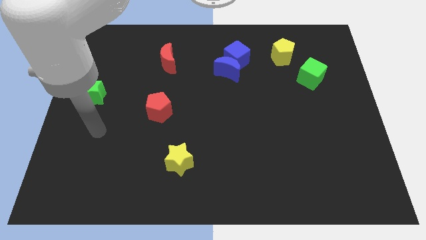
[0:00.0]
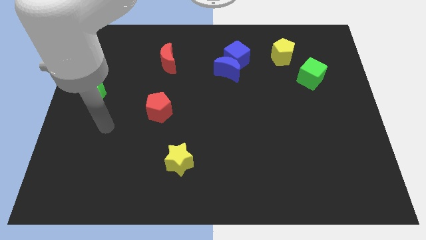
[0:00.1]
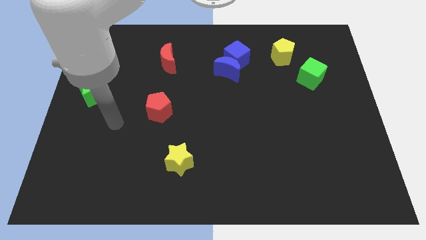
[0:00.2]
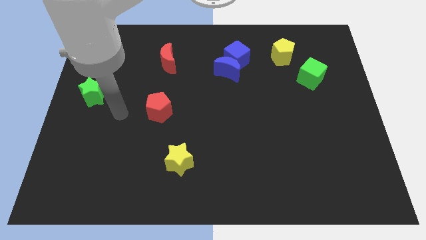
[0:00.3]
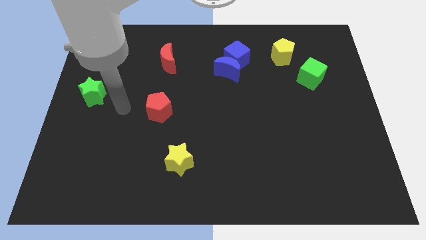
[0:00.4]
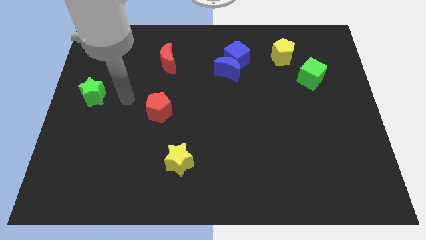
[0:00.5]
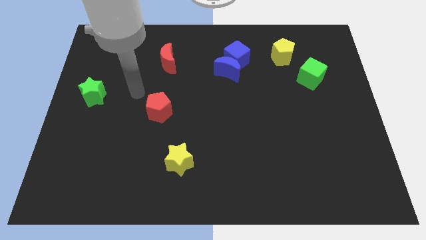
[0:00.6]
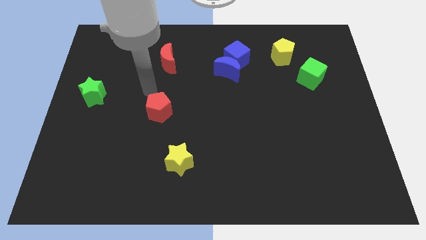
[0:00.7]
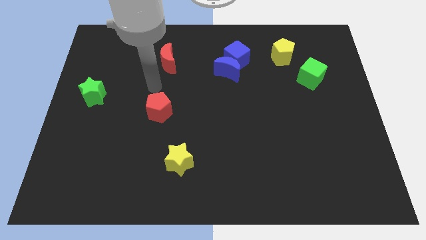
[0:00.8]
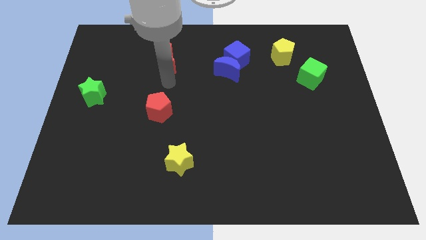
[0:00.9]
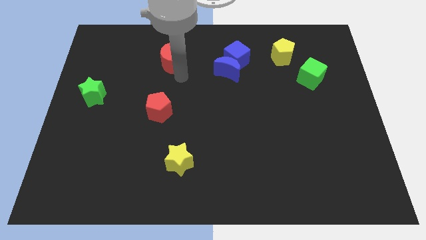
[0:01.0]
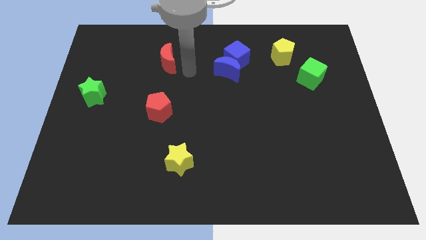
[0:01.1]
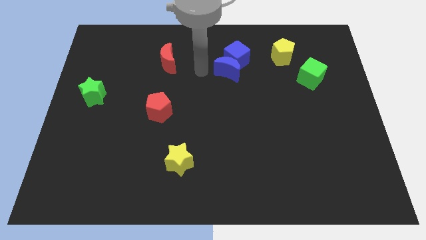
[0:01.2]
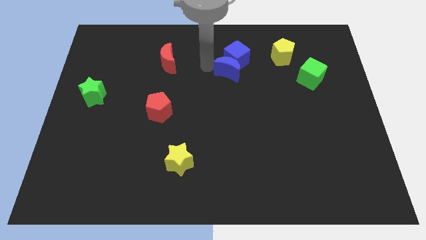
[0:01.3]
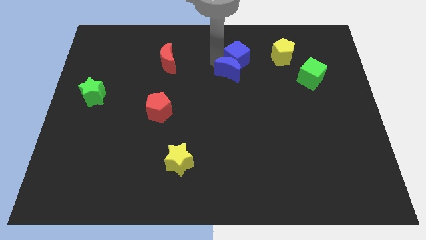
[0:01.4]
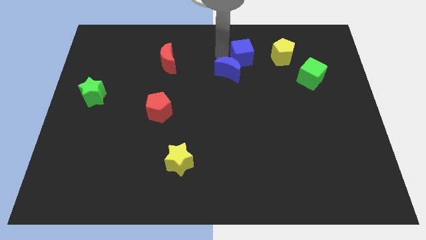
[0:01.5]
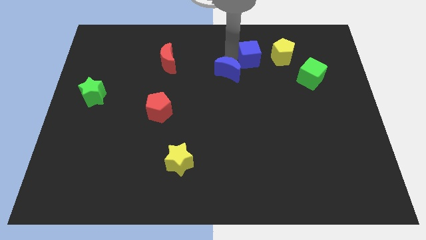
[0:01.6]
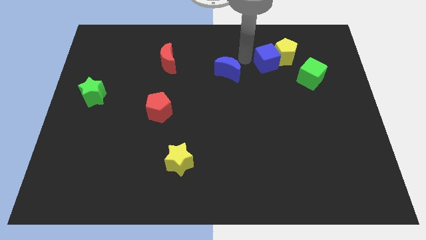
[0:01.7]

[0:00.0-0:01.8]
move the blue moon away from the blue cube

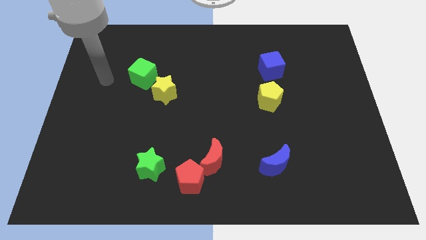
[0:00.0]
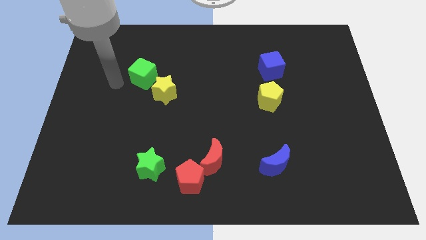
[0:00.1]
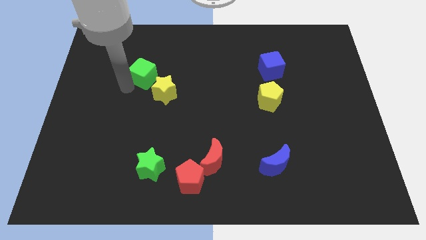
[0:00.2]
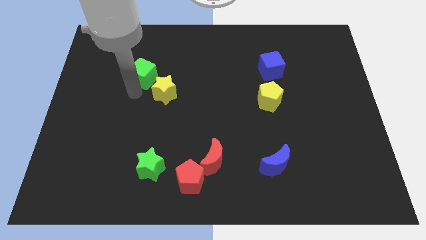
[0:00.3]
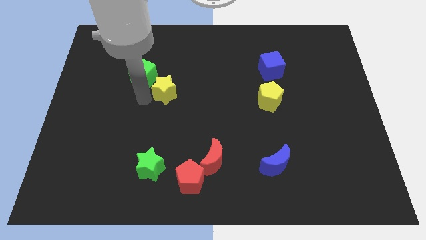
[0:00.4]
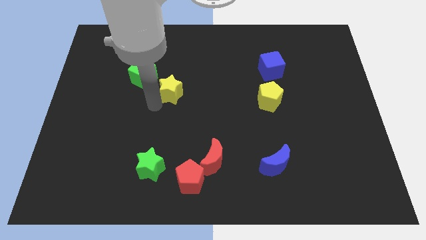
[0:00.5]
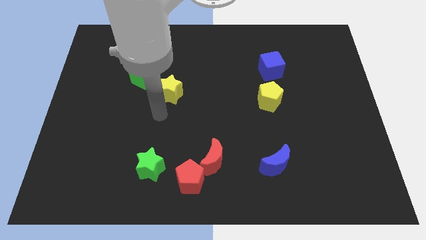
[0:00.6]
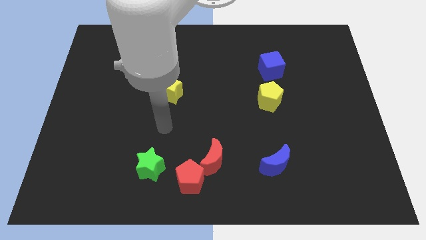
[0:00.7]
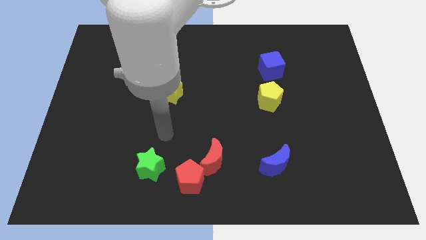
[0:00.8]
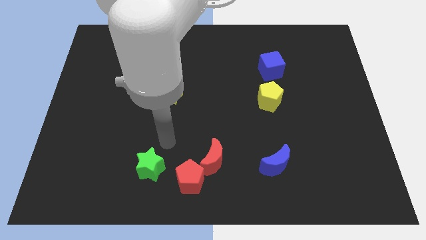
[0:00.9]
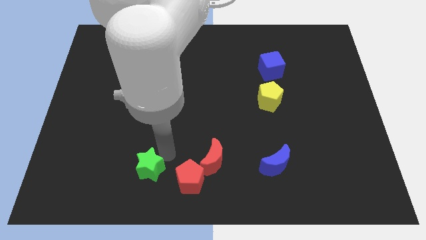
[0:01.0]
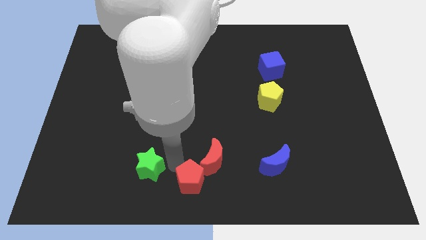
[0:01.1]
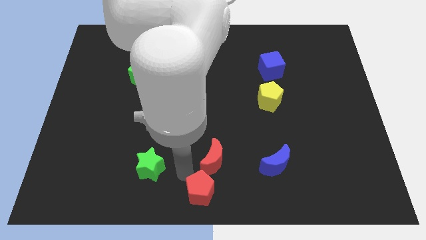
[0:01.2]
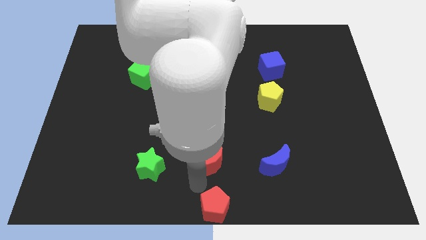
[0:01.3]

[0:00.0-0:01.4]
move the red moon away from the red pentagon

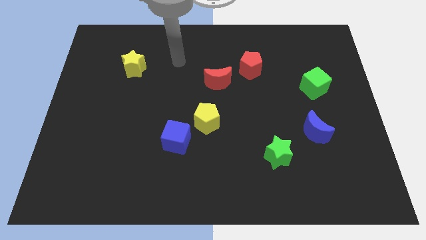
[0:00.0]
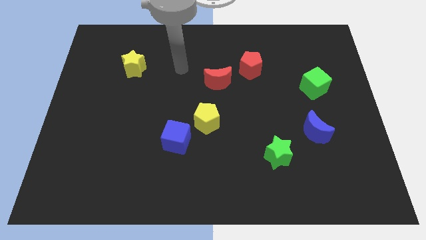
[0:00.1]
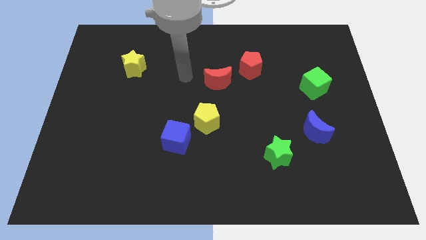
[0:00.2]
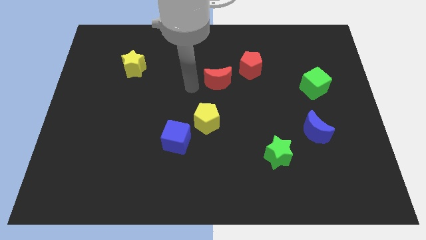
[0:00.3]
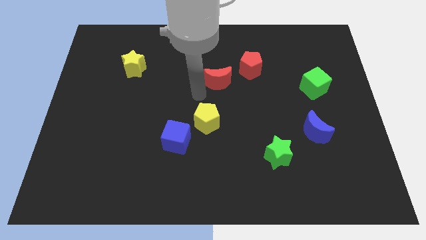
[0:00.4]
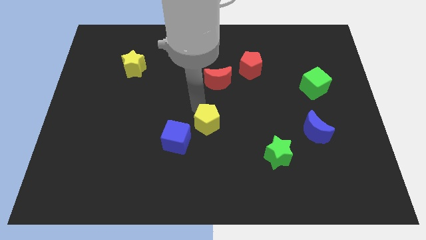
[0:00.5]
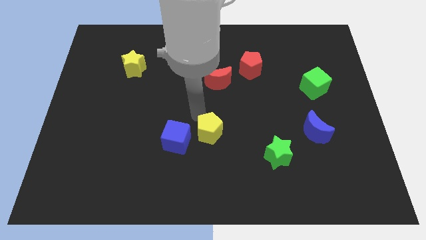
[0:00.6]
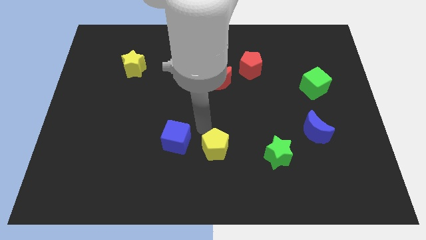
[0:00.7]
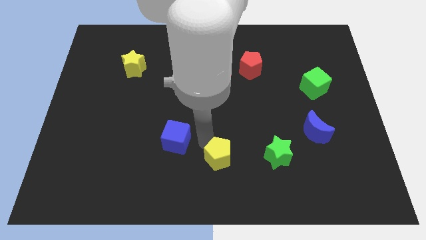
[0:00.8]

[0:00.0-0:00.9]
separate the blue cube from the yellow pentagon

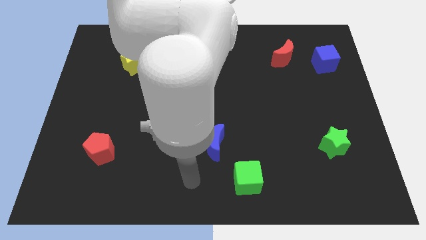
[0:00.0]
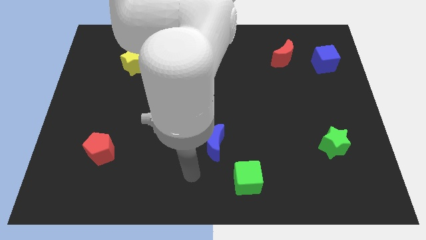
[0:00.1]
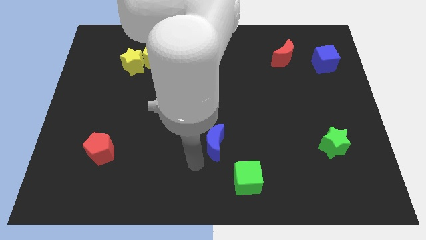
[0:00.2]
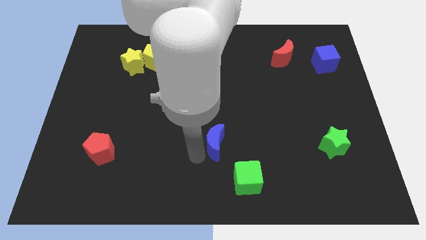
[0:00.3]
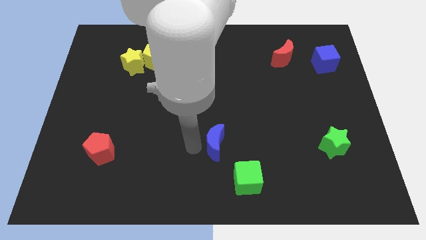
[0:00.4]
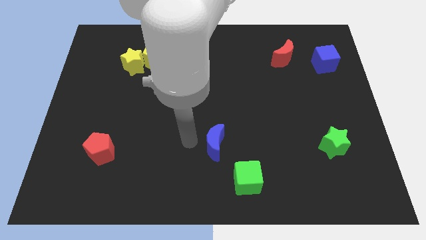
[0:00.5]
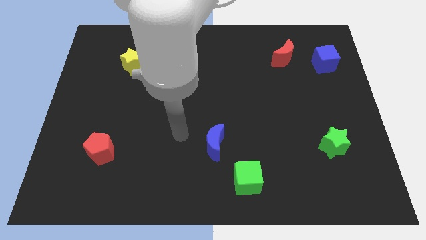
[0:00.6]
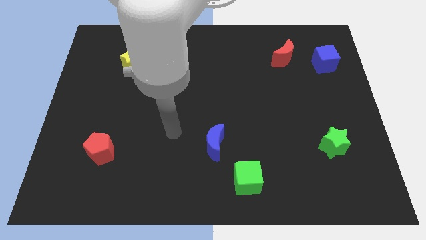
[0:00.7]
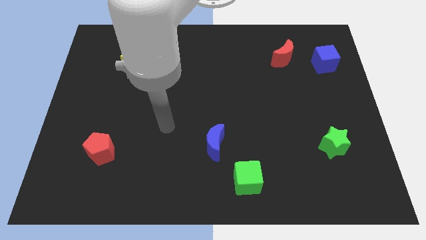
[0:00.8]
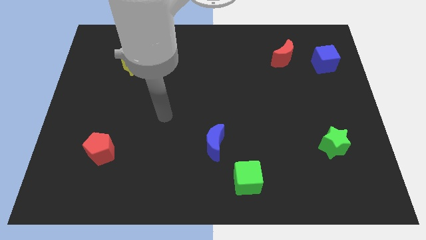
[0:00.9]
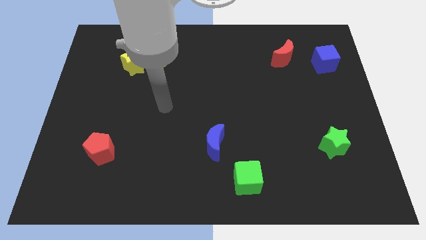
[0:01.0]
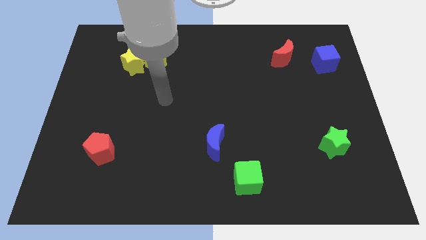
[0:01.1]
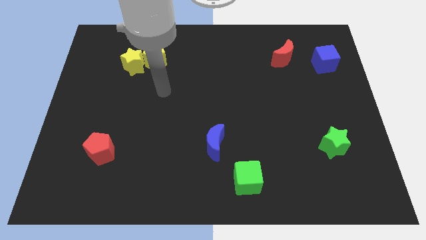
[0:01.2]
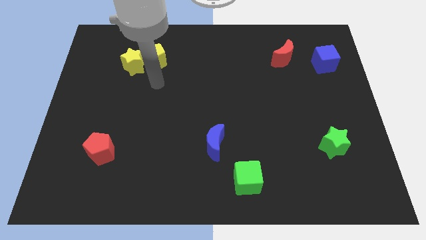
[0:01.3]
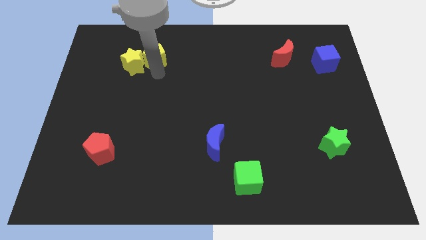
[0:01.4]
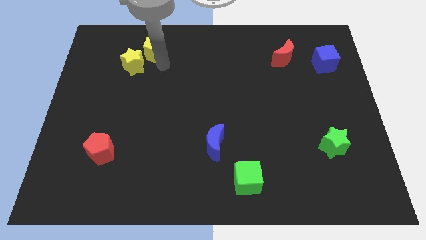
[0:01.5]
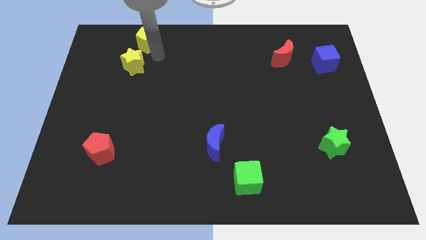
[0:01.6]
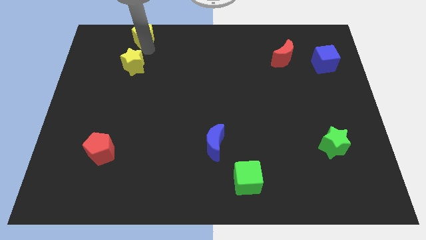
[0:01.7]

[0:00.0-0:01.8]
pull the yellow star apart from the yellow pentagon

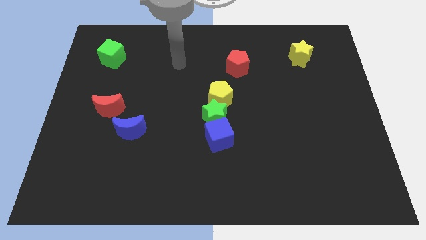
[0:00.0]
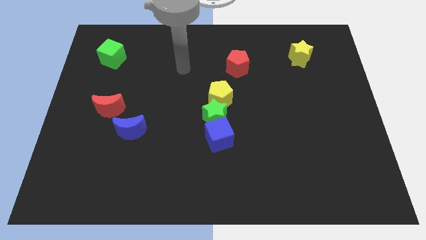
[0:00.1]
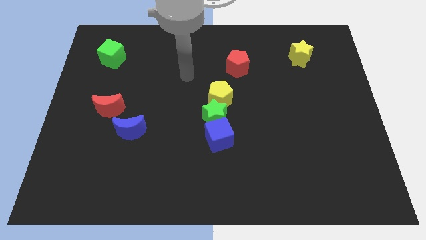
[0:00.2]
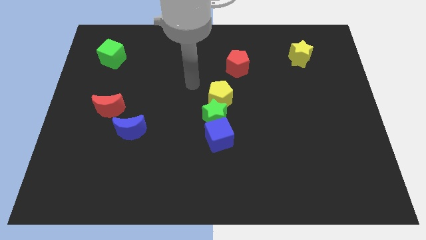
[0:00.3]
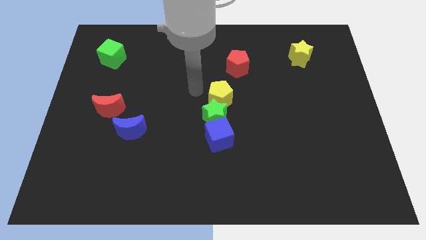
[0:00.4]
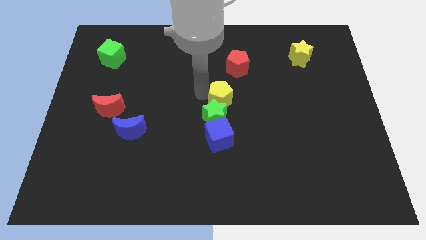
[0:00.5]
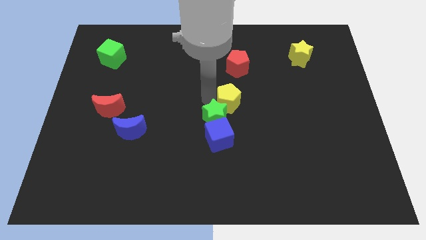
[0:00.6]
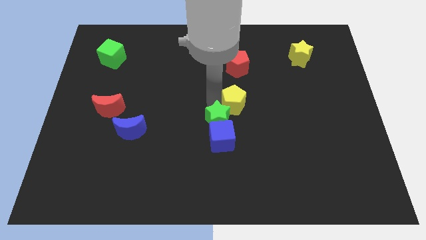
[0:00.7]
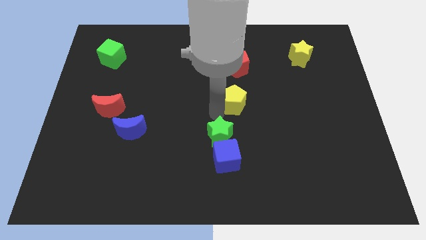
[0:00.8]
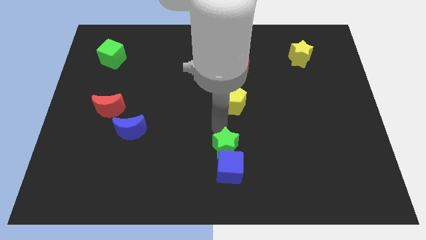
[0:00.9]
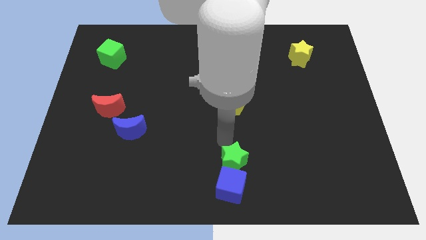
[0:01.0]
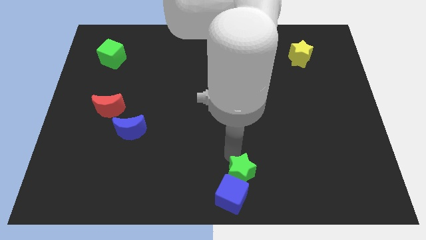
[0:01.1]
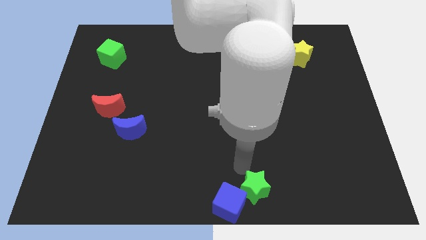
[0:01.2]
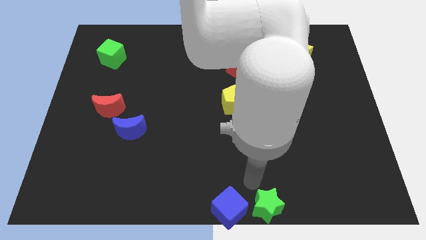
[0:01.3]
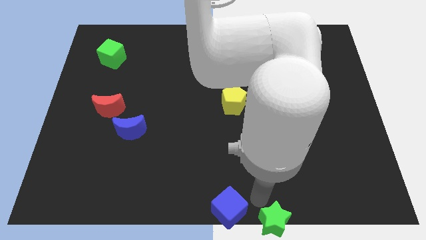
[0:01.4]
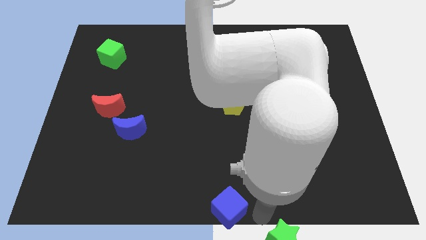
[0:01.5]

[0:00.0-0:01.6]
separate the blue cube from the green star

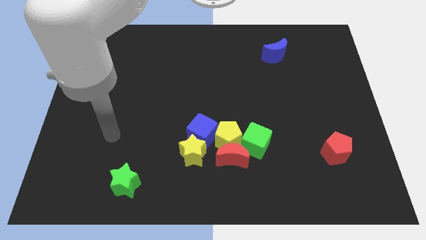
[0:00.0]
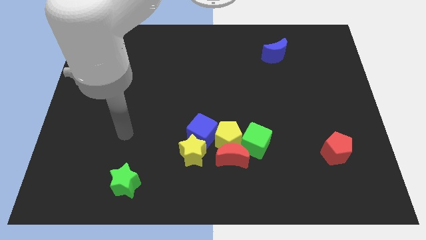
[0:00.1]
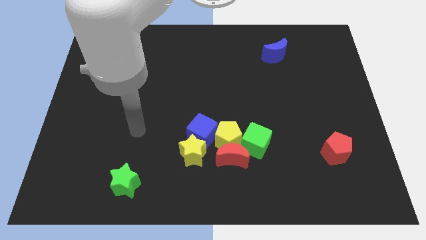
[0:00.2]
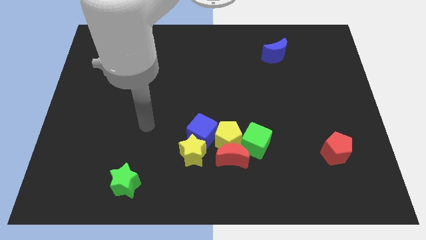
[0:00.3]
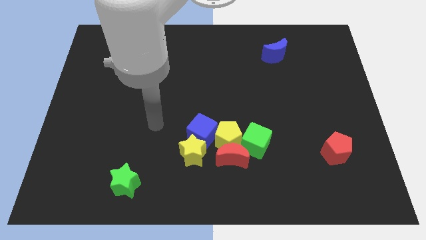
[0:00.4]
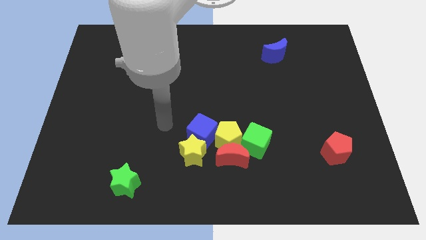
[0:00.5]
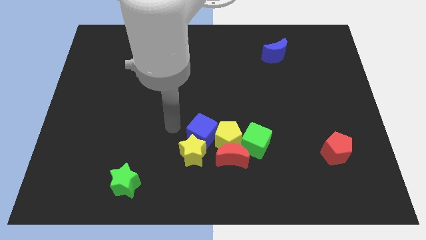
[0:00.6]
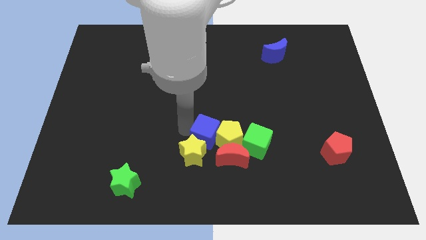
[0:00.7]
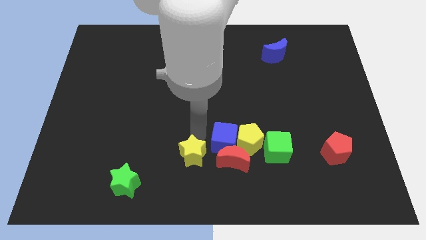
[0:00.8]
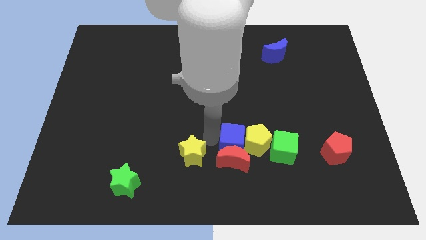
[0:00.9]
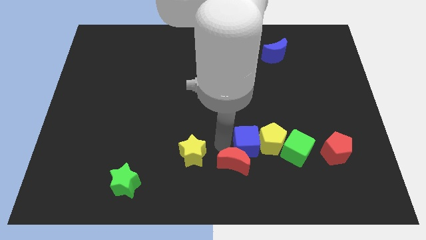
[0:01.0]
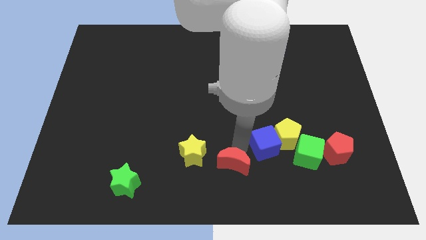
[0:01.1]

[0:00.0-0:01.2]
separate the green cube from the yellow pentagon and red moon

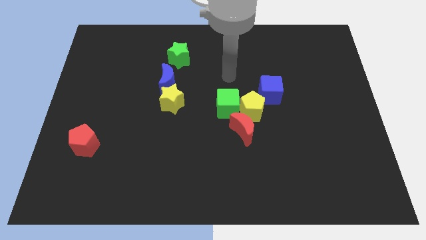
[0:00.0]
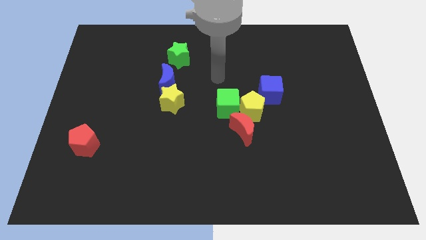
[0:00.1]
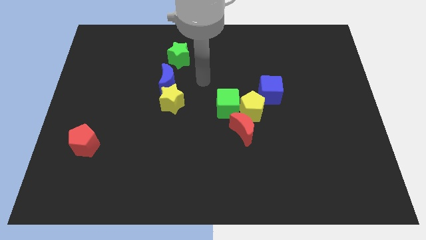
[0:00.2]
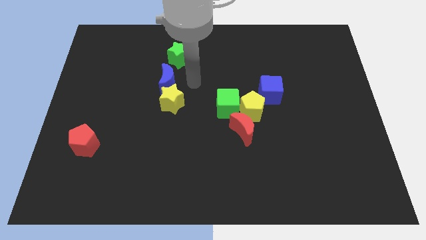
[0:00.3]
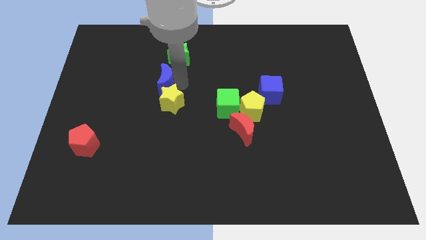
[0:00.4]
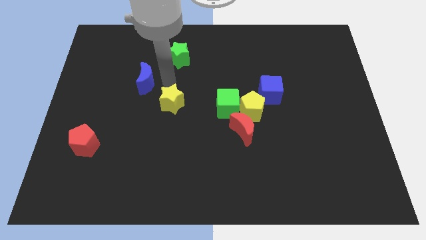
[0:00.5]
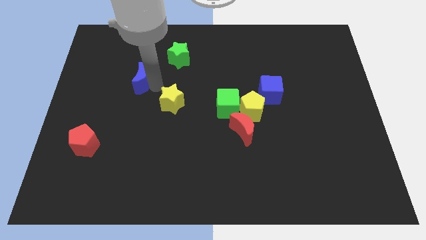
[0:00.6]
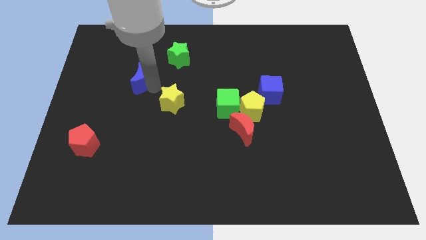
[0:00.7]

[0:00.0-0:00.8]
move the yellow star away from the blue moon
